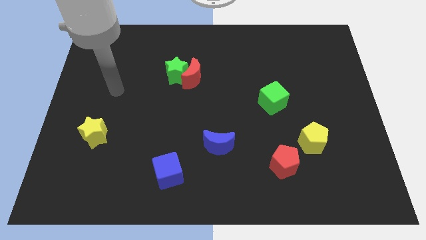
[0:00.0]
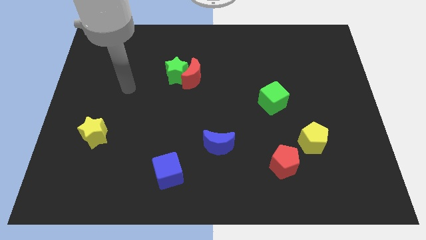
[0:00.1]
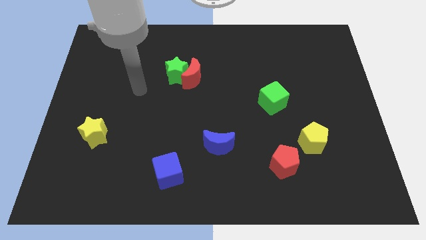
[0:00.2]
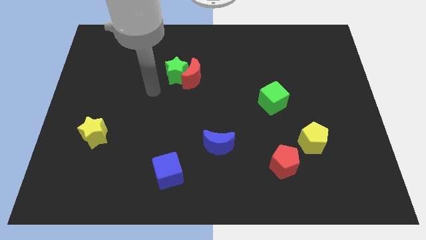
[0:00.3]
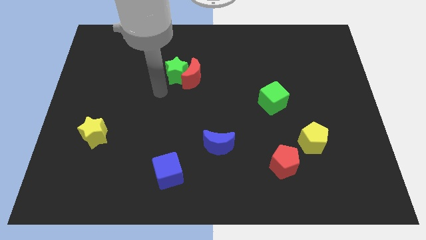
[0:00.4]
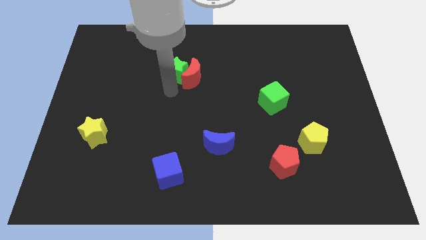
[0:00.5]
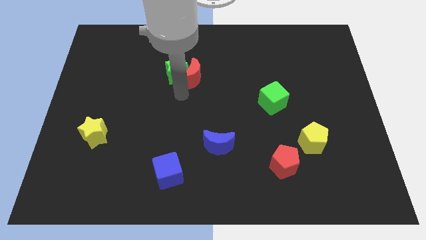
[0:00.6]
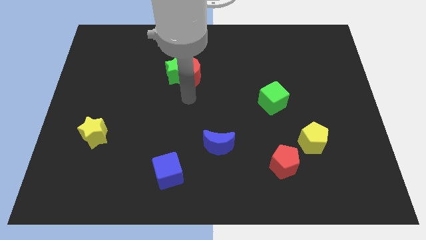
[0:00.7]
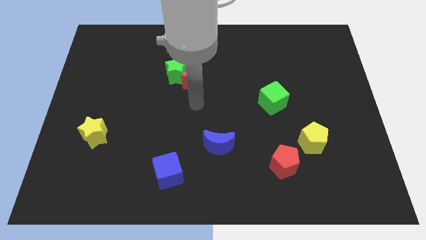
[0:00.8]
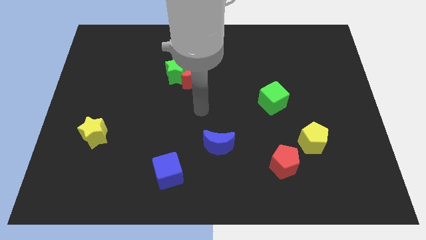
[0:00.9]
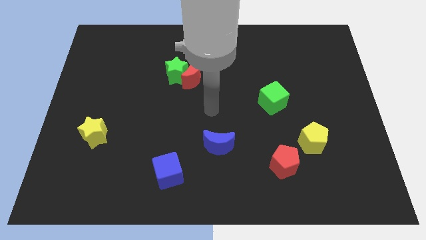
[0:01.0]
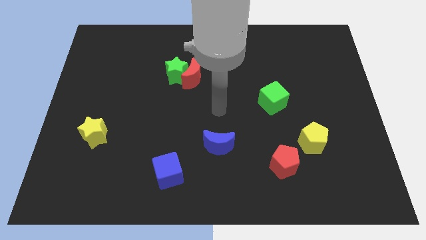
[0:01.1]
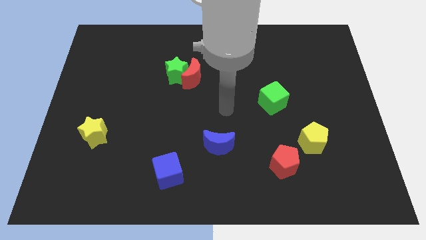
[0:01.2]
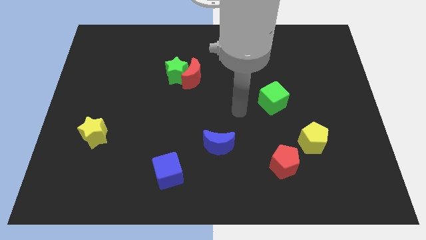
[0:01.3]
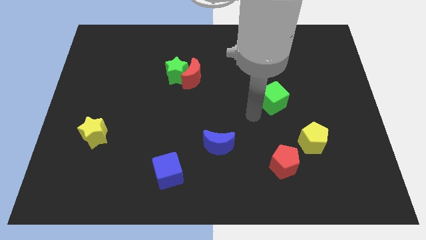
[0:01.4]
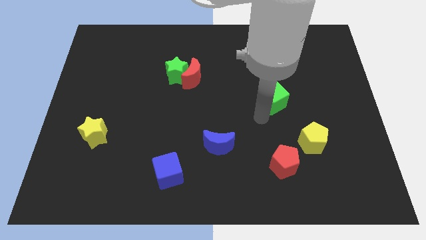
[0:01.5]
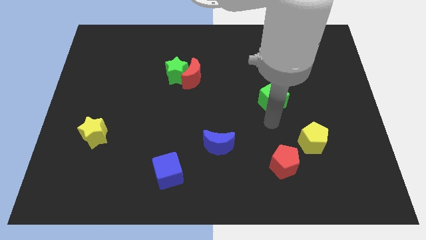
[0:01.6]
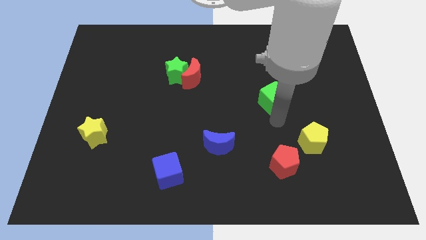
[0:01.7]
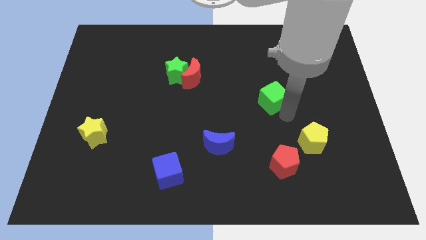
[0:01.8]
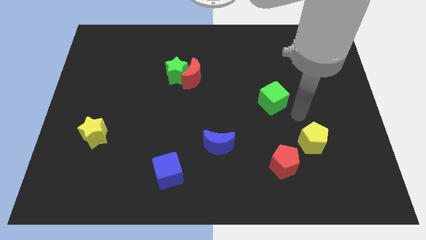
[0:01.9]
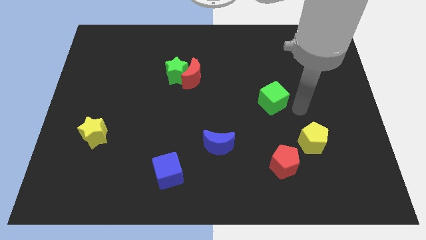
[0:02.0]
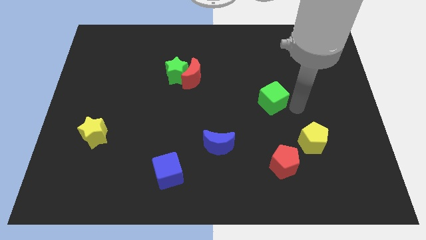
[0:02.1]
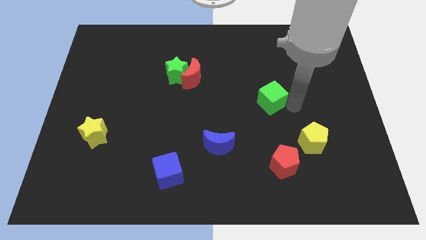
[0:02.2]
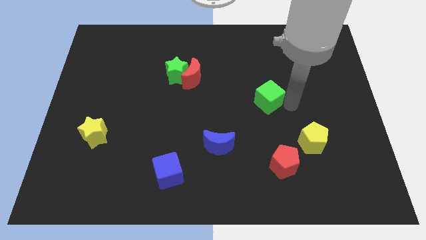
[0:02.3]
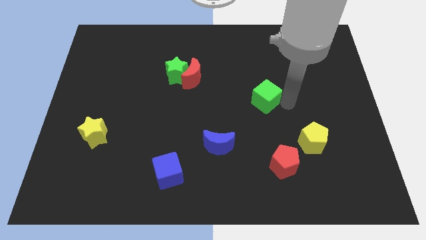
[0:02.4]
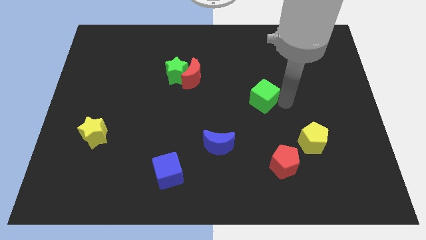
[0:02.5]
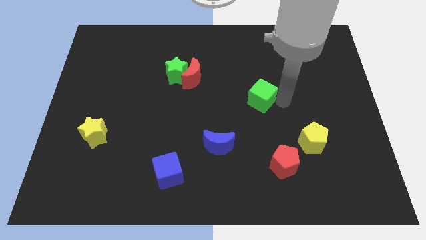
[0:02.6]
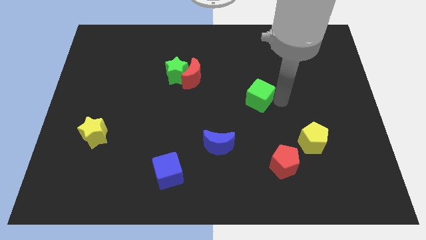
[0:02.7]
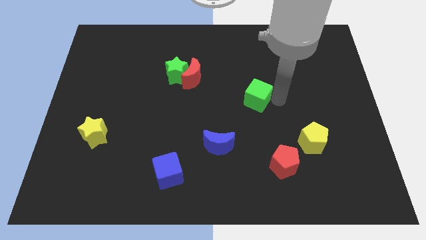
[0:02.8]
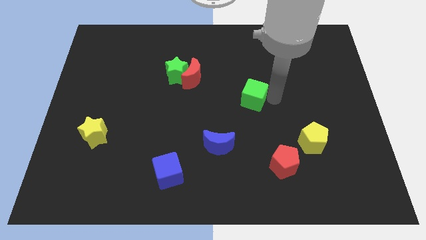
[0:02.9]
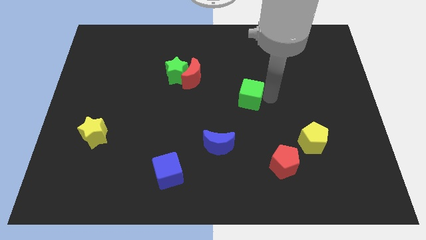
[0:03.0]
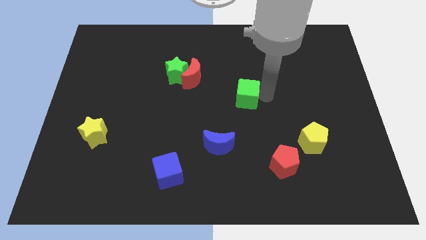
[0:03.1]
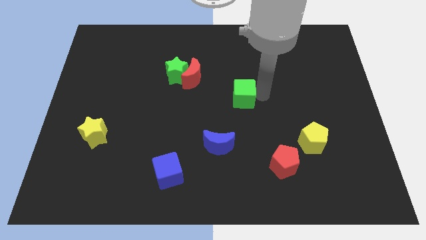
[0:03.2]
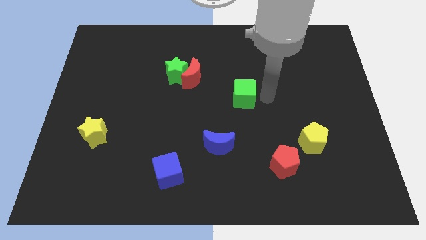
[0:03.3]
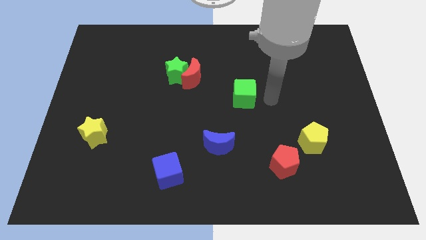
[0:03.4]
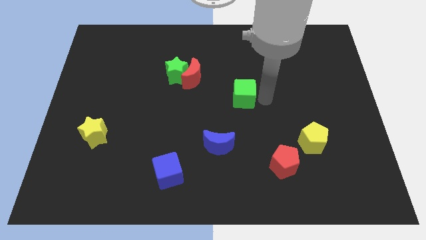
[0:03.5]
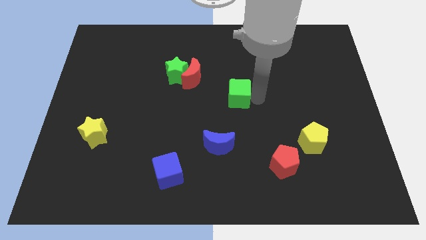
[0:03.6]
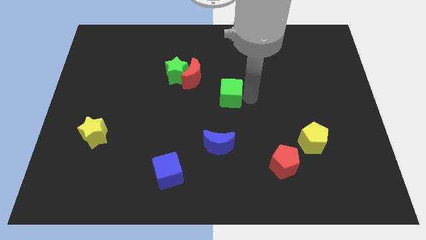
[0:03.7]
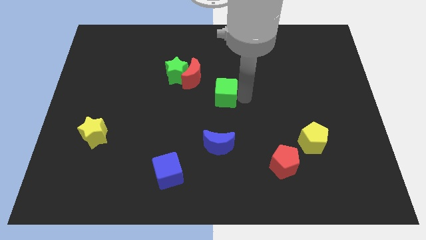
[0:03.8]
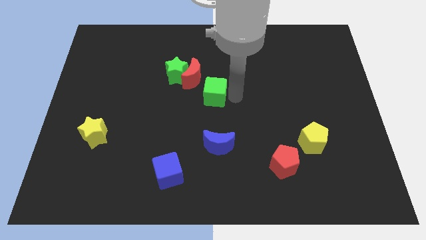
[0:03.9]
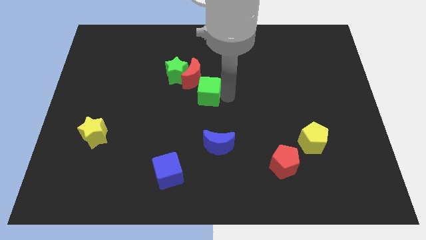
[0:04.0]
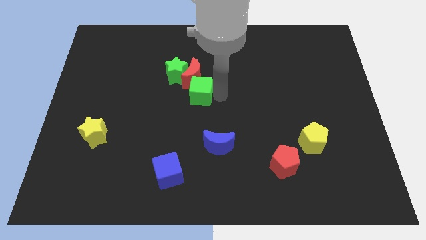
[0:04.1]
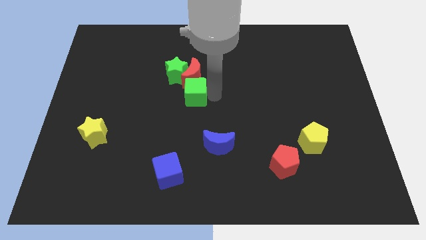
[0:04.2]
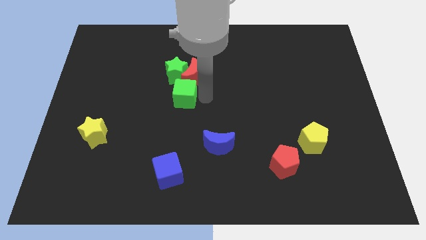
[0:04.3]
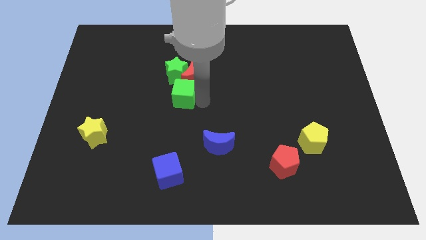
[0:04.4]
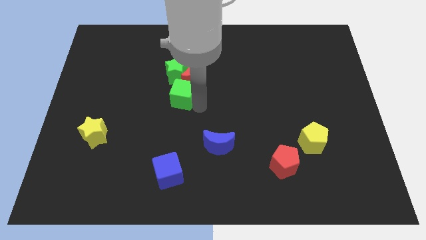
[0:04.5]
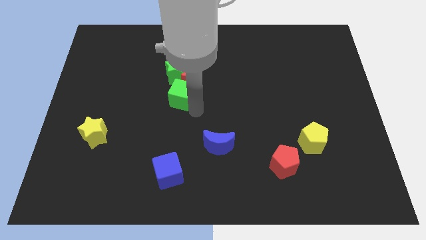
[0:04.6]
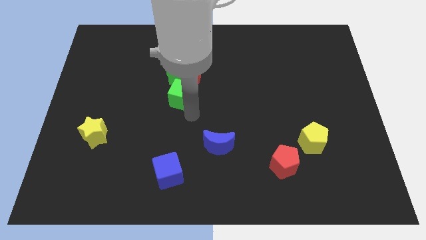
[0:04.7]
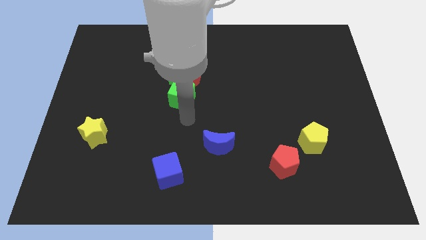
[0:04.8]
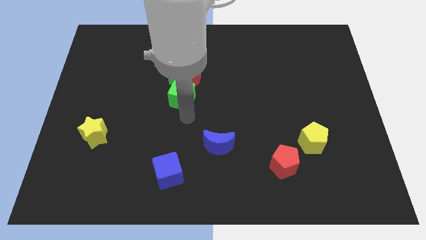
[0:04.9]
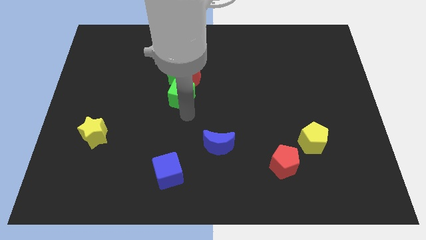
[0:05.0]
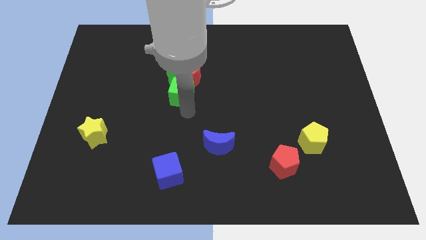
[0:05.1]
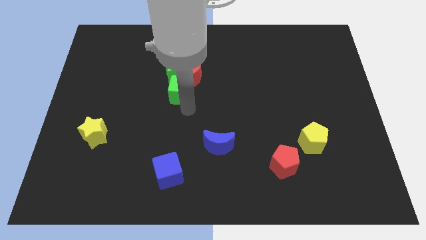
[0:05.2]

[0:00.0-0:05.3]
put the green cube close to the green star

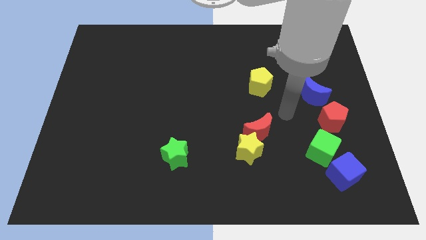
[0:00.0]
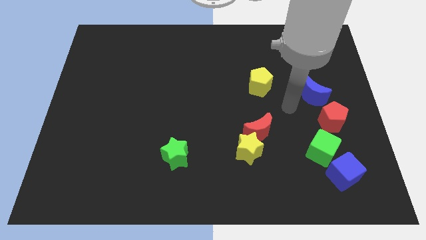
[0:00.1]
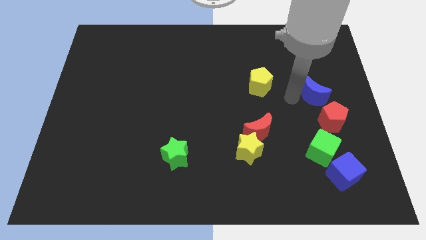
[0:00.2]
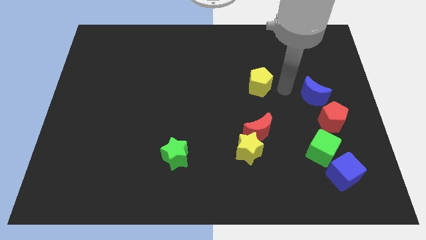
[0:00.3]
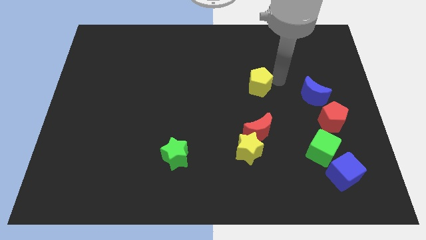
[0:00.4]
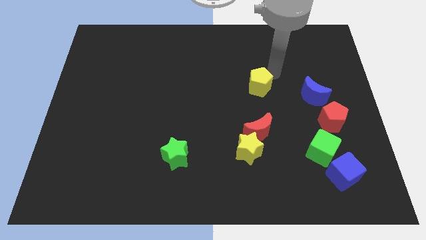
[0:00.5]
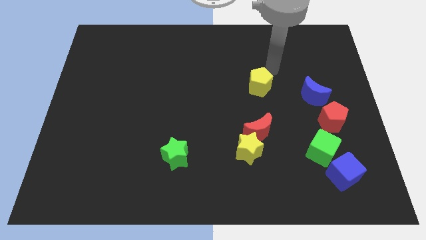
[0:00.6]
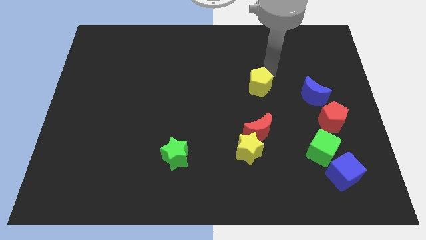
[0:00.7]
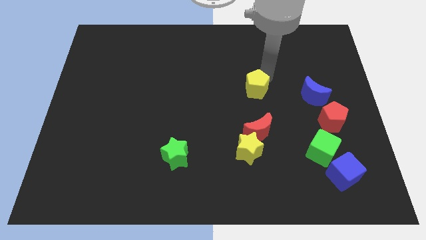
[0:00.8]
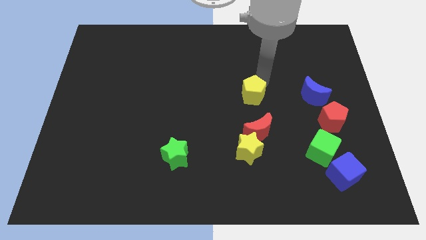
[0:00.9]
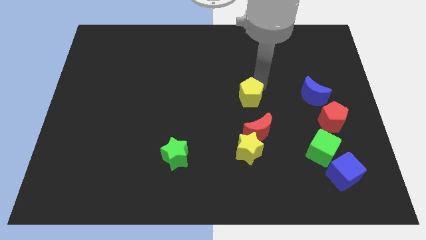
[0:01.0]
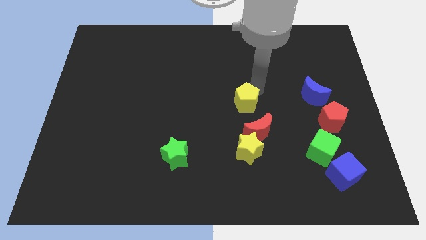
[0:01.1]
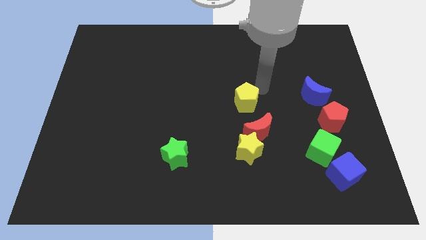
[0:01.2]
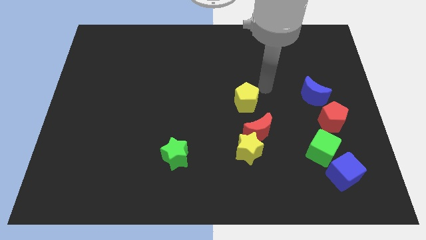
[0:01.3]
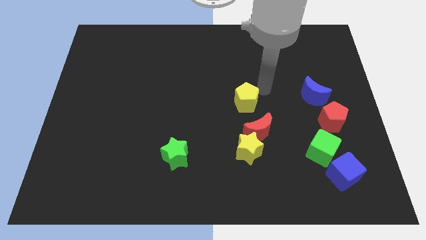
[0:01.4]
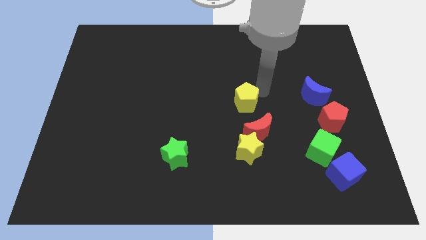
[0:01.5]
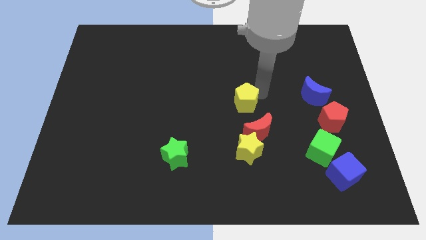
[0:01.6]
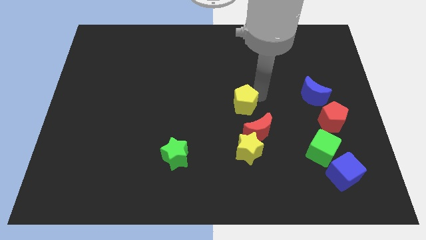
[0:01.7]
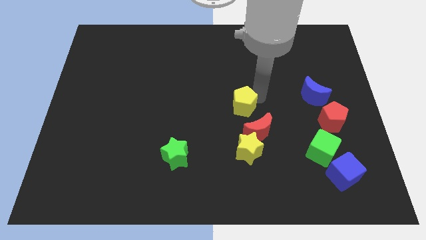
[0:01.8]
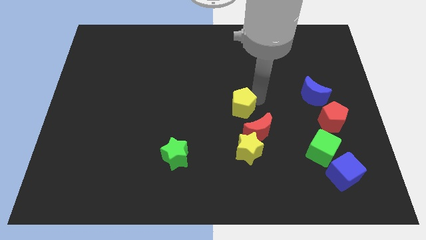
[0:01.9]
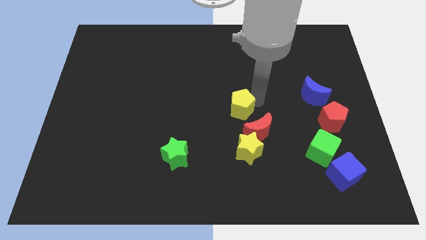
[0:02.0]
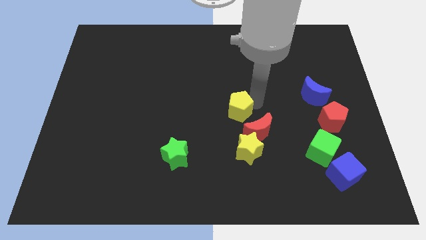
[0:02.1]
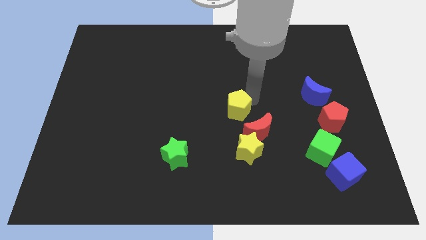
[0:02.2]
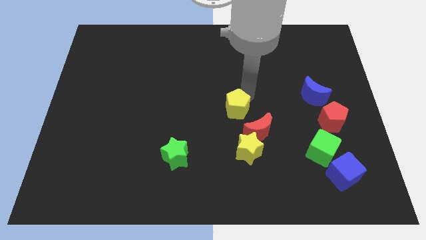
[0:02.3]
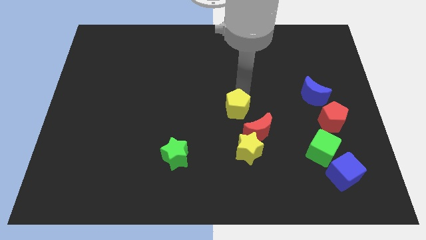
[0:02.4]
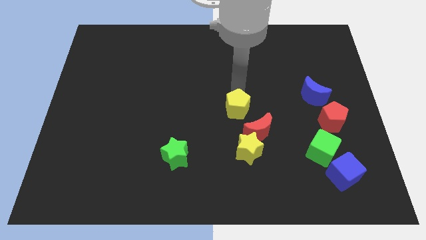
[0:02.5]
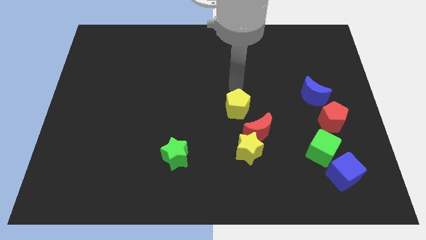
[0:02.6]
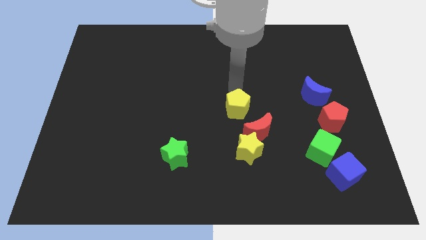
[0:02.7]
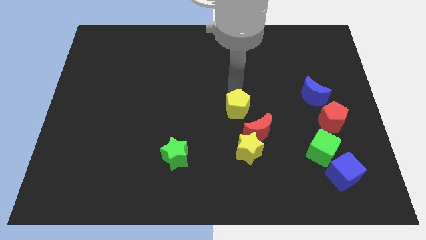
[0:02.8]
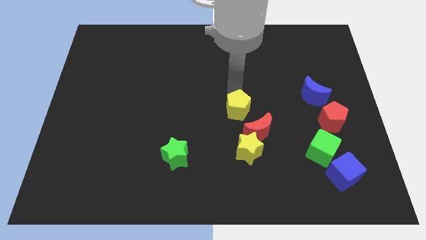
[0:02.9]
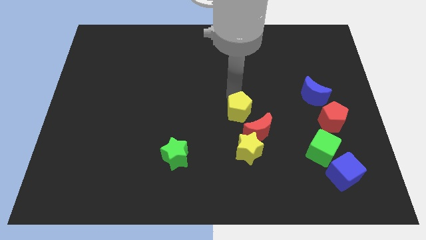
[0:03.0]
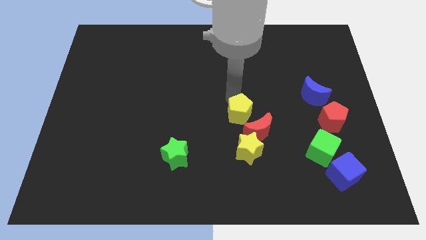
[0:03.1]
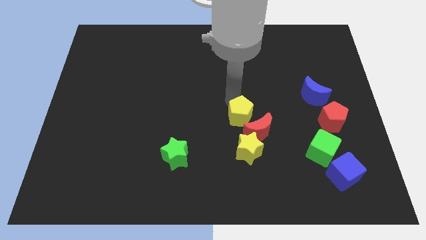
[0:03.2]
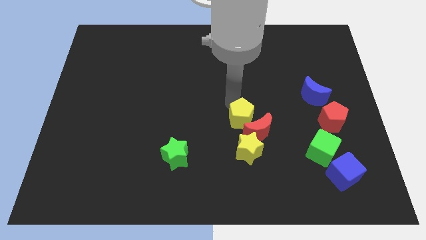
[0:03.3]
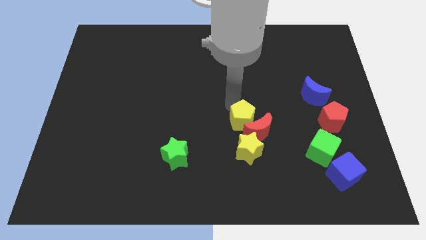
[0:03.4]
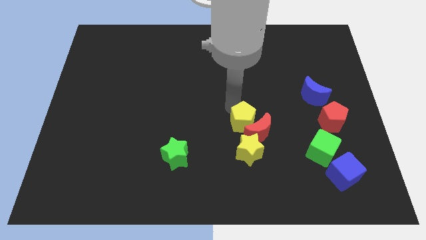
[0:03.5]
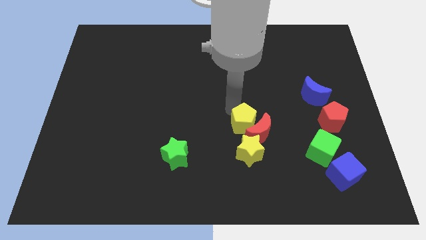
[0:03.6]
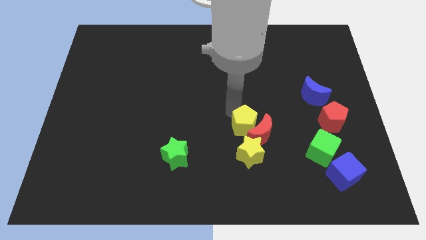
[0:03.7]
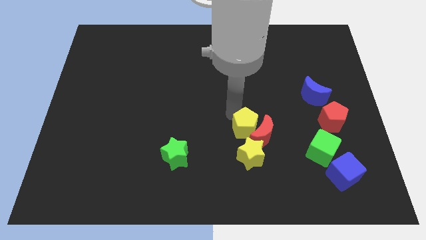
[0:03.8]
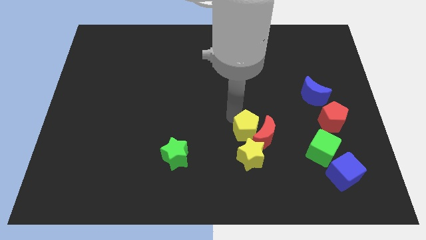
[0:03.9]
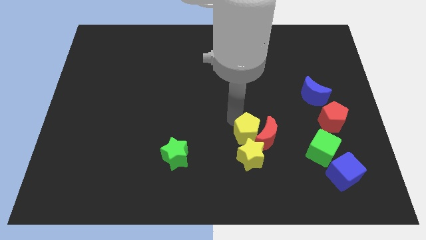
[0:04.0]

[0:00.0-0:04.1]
move the yellow pentagon towards the yellow star
